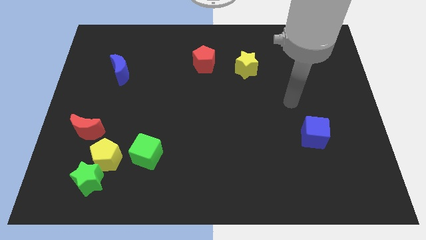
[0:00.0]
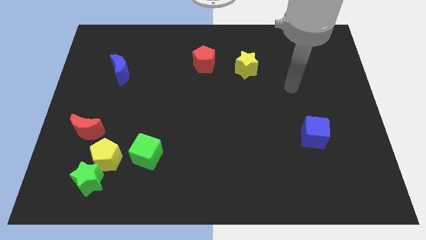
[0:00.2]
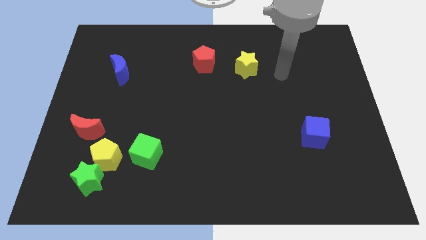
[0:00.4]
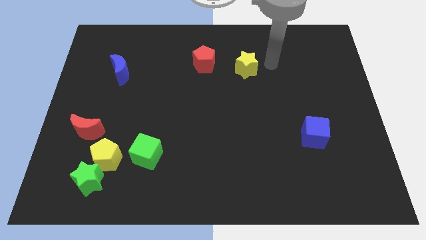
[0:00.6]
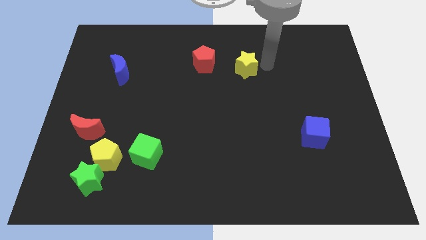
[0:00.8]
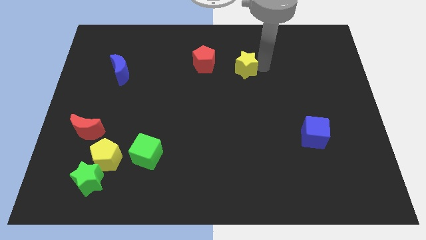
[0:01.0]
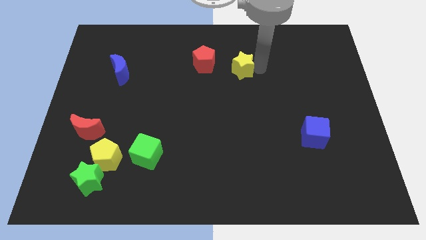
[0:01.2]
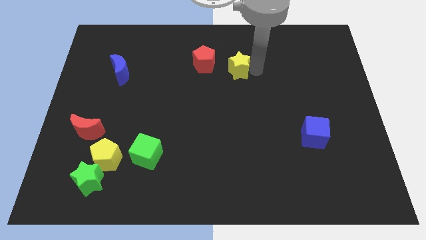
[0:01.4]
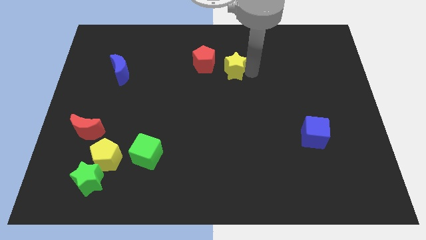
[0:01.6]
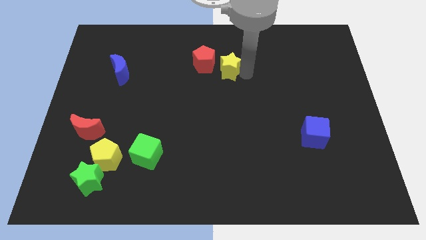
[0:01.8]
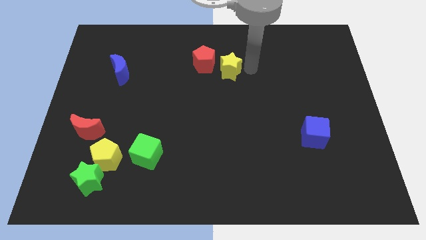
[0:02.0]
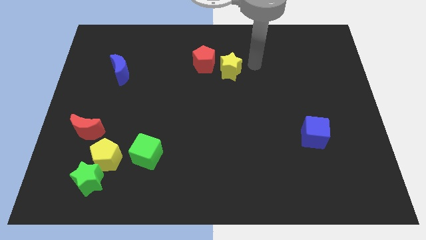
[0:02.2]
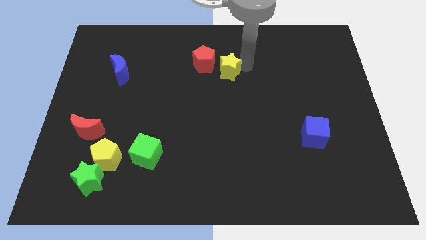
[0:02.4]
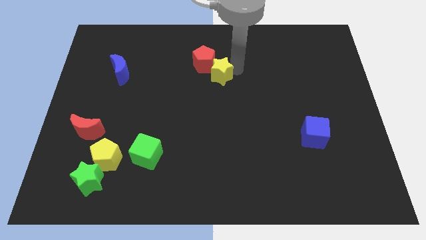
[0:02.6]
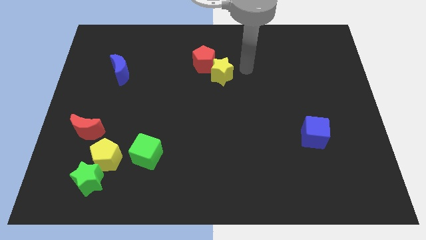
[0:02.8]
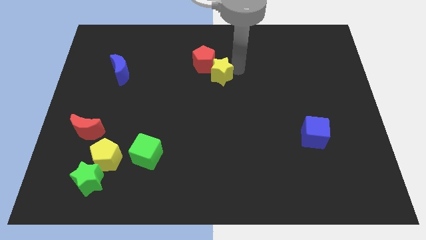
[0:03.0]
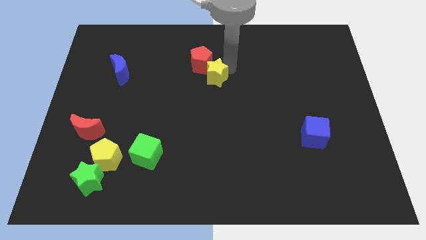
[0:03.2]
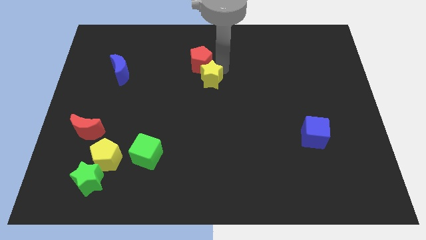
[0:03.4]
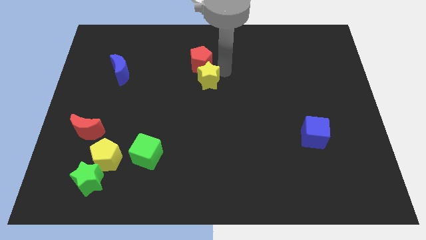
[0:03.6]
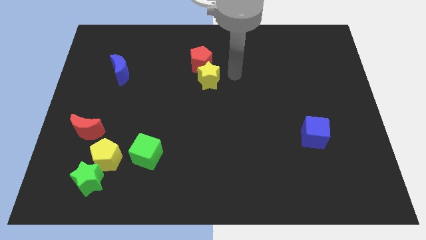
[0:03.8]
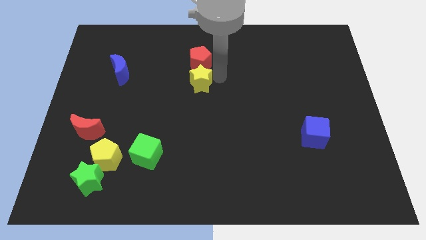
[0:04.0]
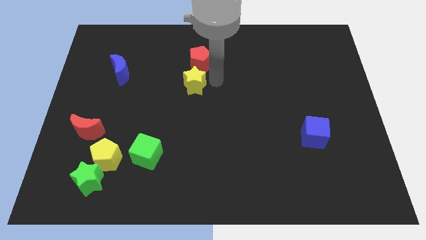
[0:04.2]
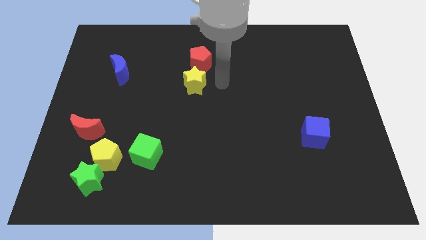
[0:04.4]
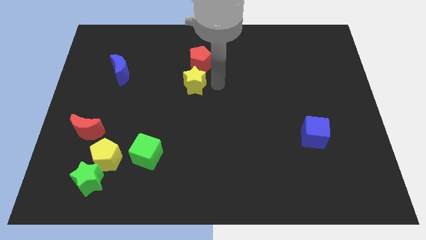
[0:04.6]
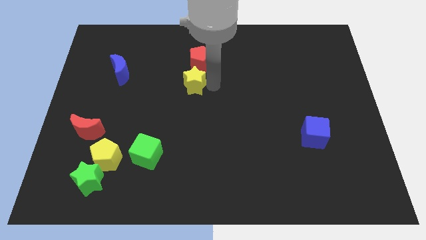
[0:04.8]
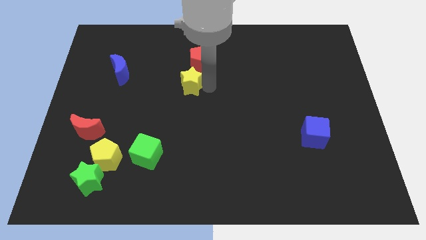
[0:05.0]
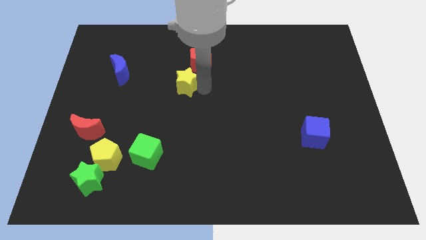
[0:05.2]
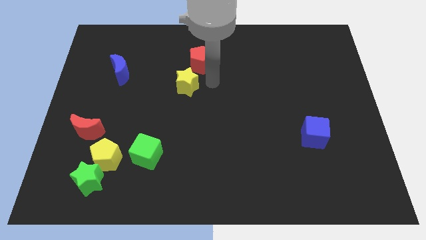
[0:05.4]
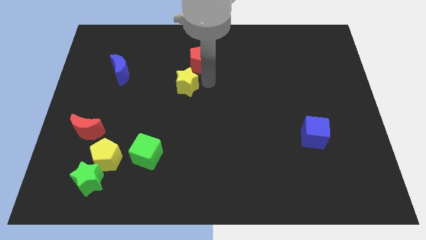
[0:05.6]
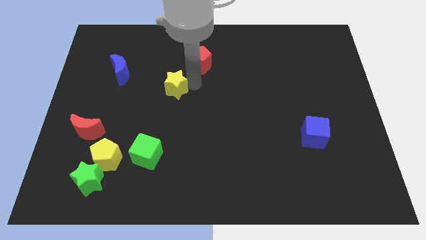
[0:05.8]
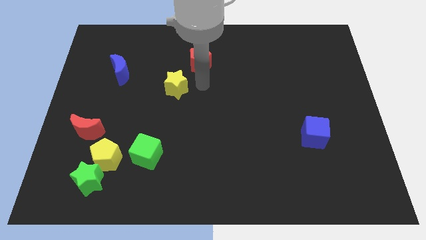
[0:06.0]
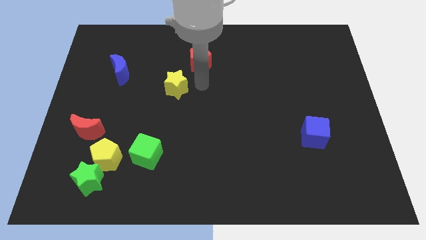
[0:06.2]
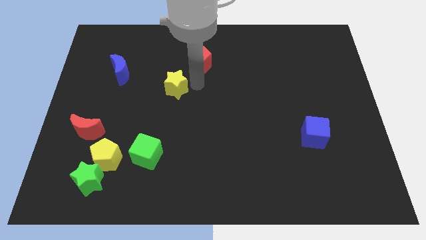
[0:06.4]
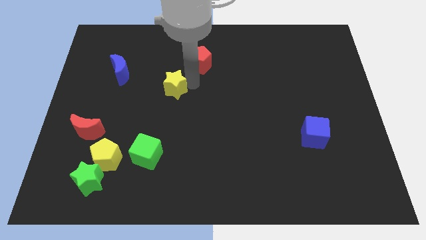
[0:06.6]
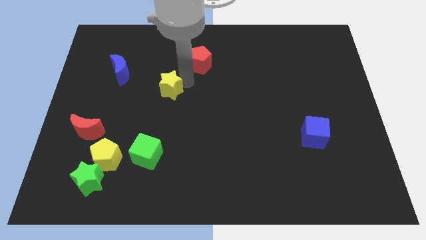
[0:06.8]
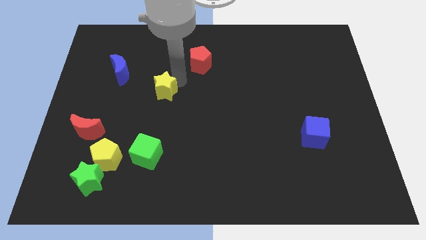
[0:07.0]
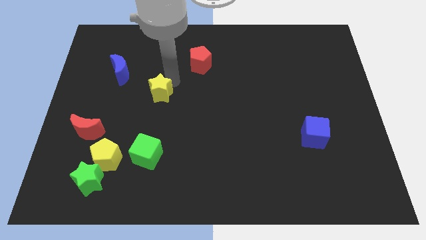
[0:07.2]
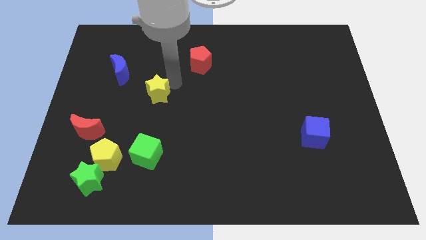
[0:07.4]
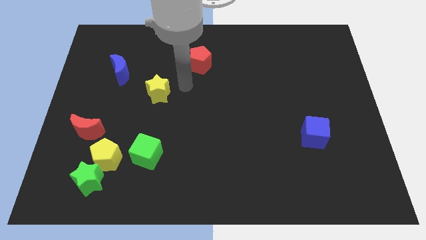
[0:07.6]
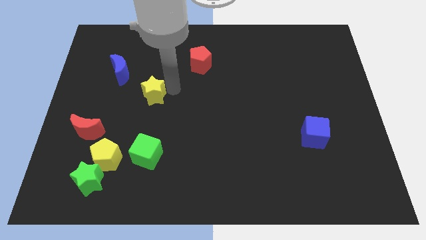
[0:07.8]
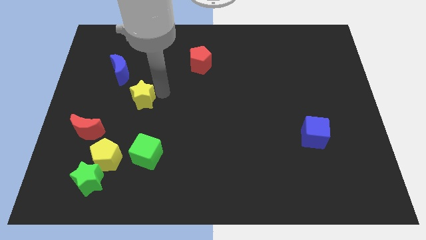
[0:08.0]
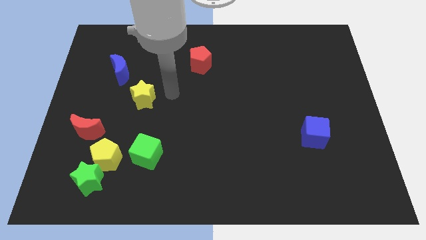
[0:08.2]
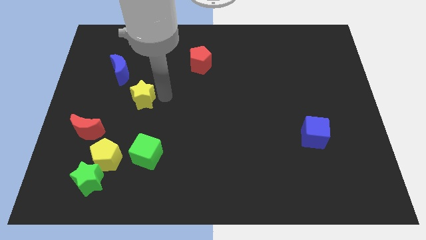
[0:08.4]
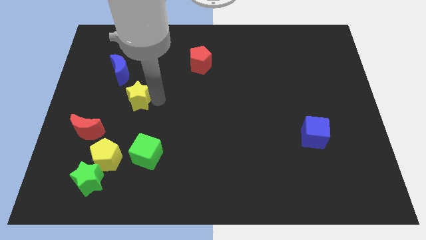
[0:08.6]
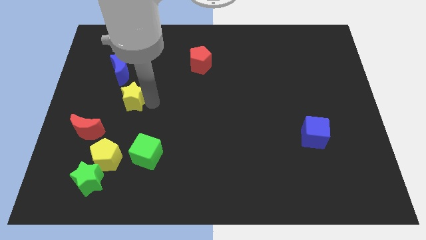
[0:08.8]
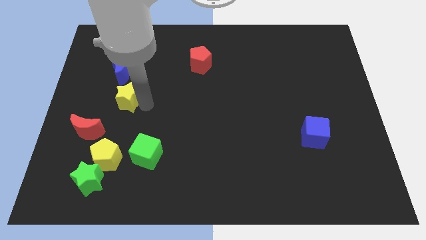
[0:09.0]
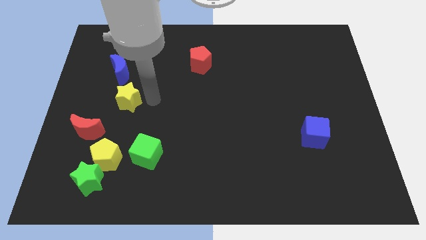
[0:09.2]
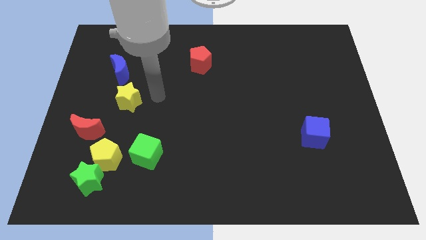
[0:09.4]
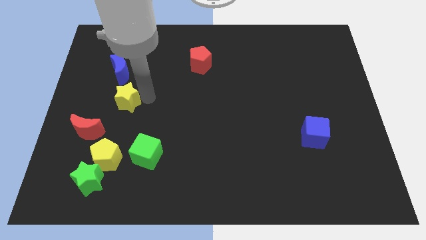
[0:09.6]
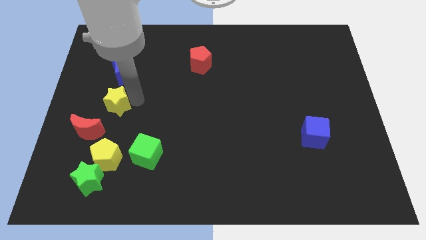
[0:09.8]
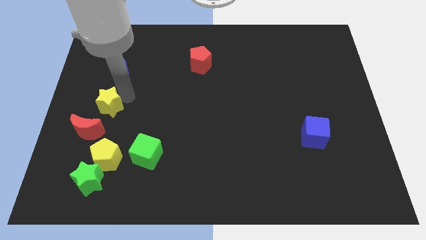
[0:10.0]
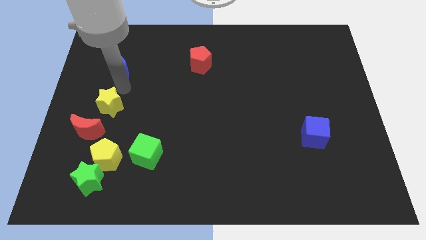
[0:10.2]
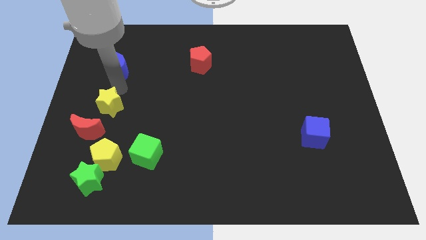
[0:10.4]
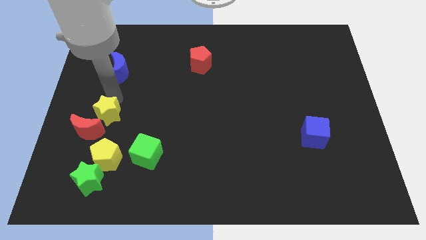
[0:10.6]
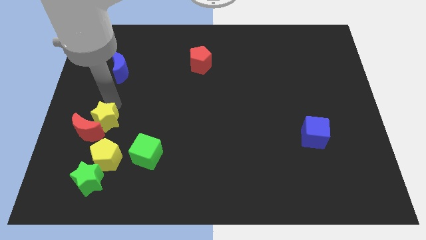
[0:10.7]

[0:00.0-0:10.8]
put the yellow star above the green star
